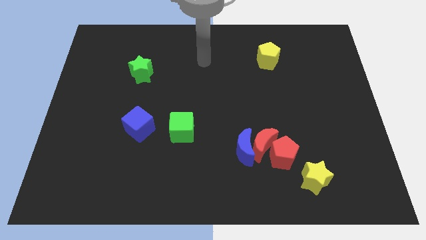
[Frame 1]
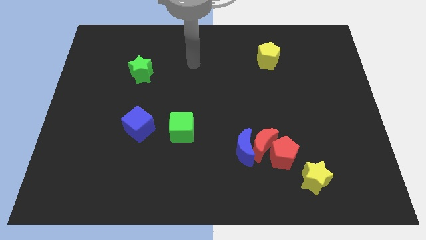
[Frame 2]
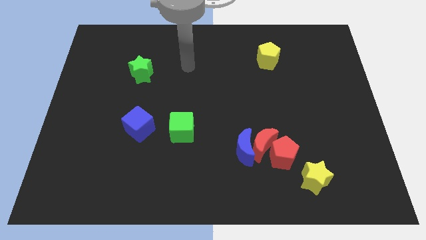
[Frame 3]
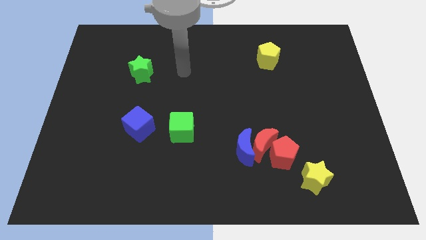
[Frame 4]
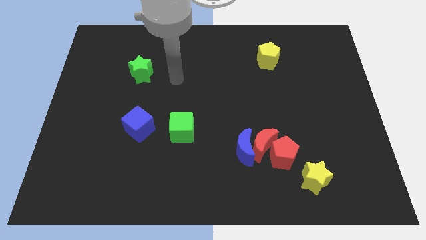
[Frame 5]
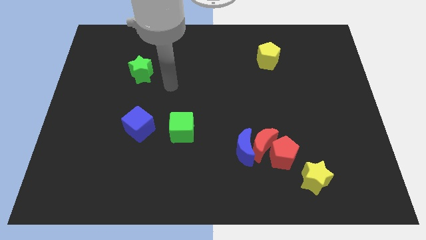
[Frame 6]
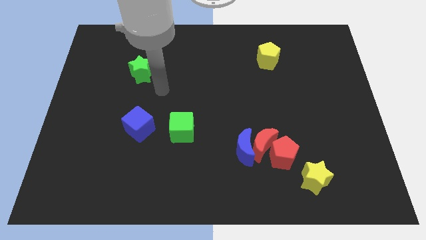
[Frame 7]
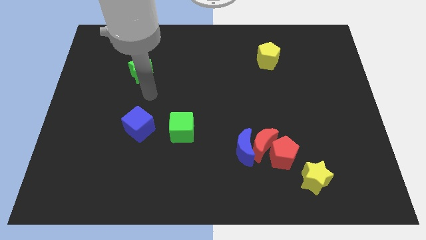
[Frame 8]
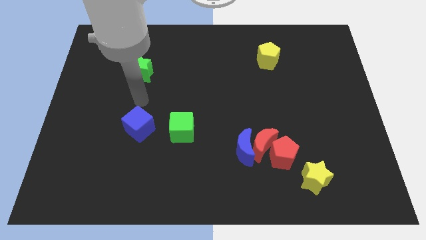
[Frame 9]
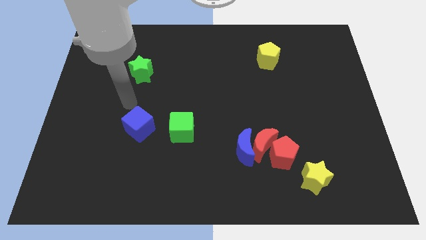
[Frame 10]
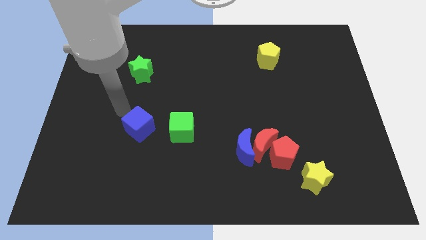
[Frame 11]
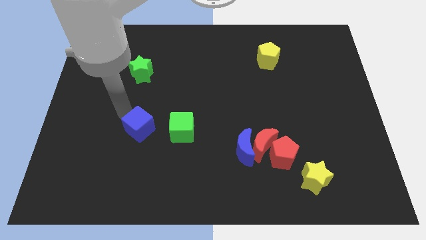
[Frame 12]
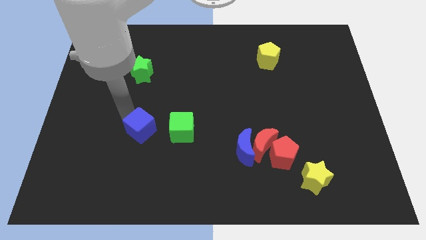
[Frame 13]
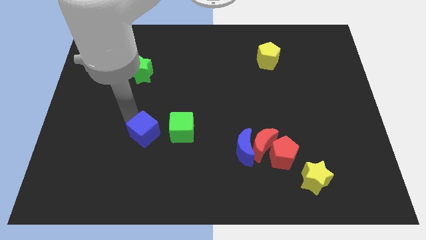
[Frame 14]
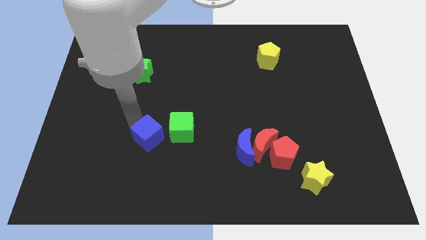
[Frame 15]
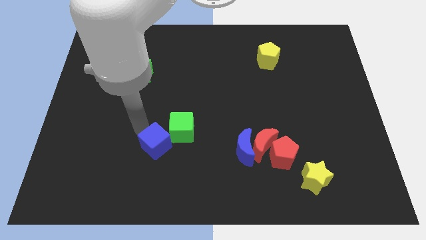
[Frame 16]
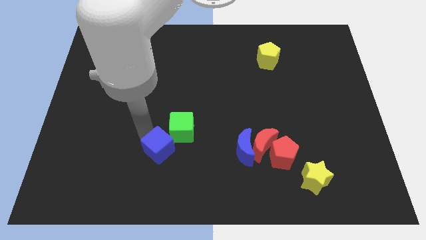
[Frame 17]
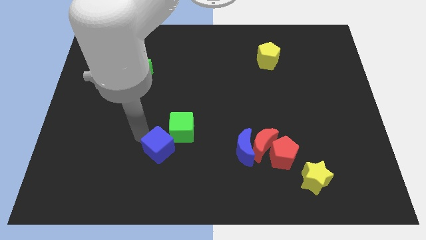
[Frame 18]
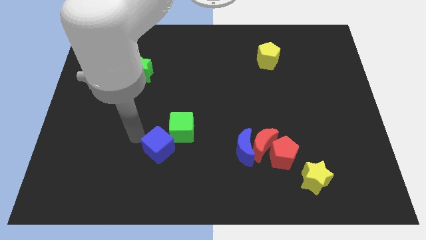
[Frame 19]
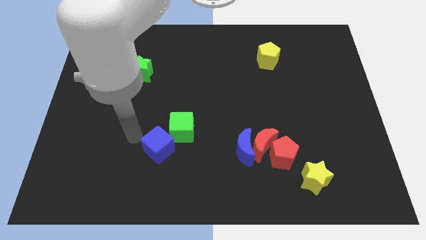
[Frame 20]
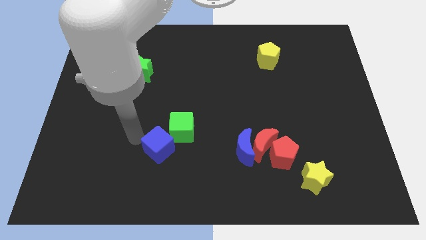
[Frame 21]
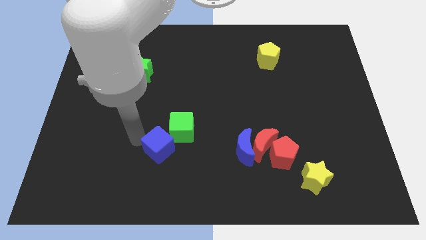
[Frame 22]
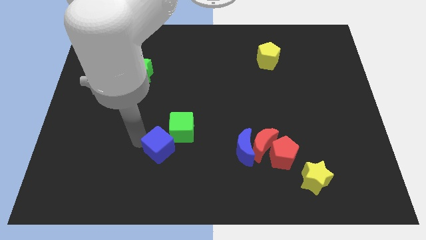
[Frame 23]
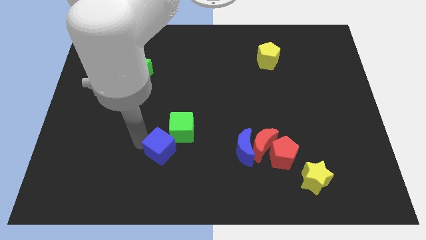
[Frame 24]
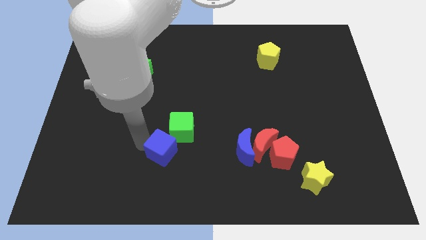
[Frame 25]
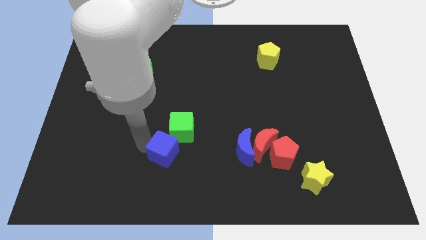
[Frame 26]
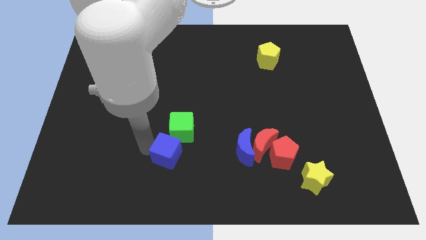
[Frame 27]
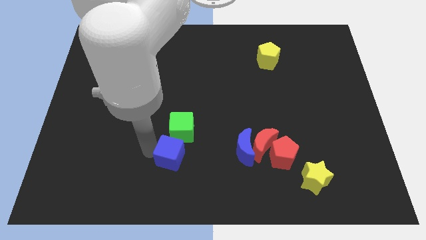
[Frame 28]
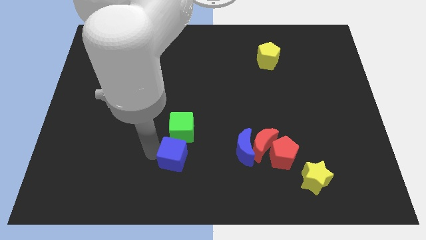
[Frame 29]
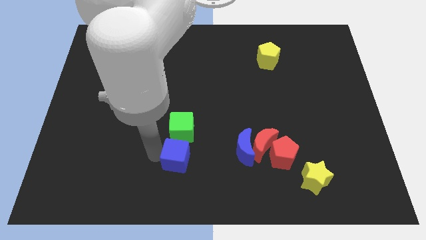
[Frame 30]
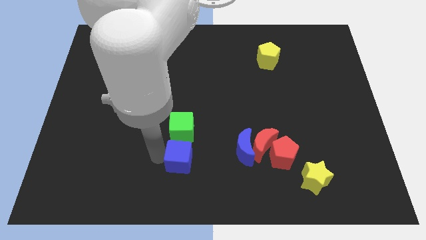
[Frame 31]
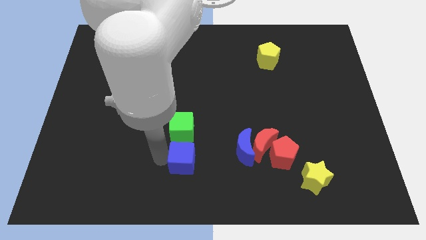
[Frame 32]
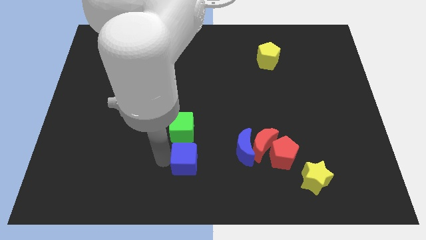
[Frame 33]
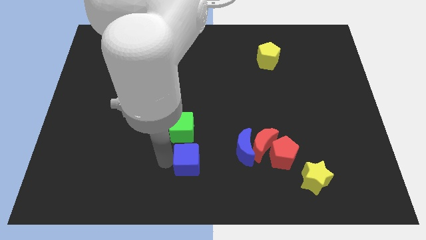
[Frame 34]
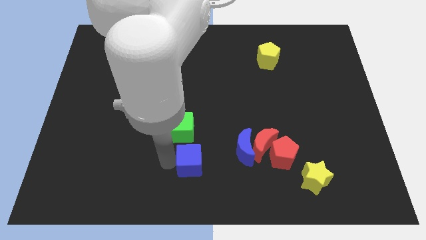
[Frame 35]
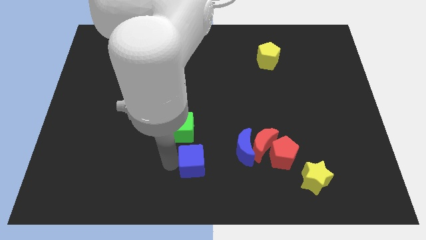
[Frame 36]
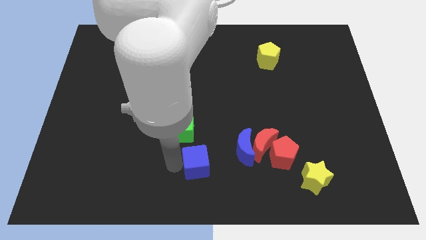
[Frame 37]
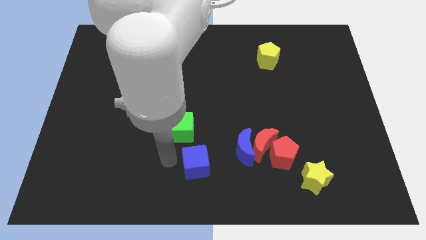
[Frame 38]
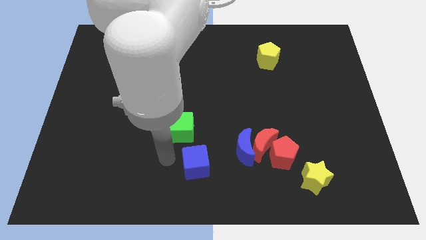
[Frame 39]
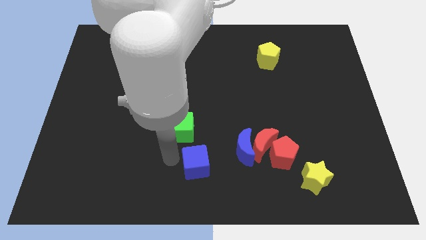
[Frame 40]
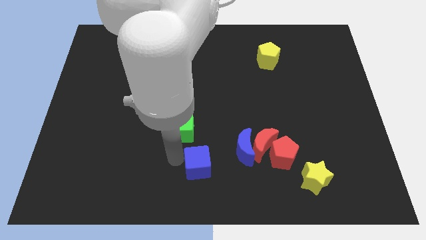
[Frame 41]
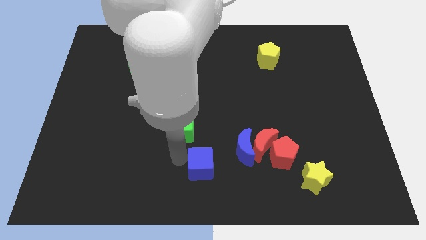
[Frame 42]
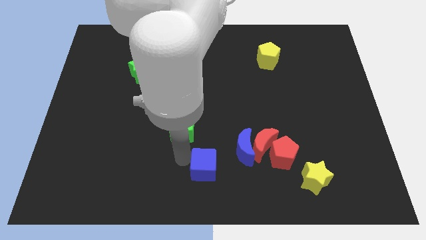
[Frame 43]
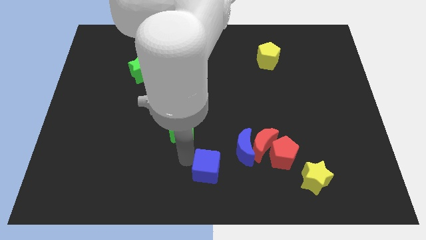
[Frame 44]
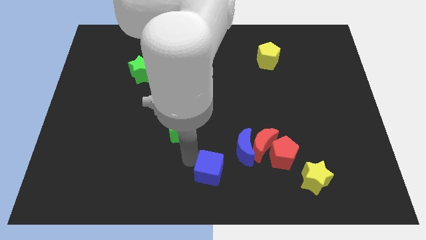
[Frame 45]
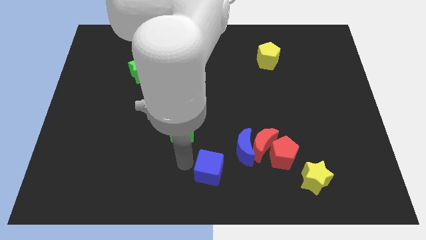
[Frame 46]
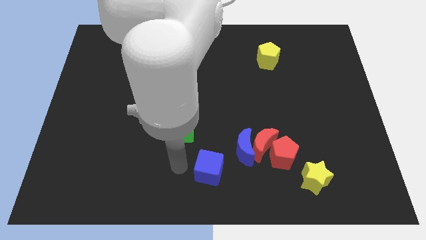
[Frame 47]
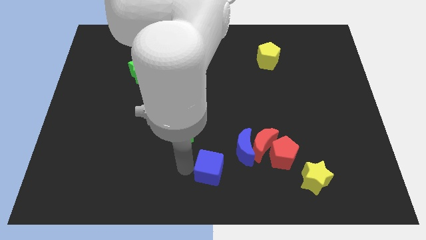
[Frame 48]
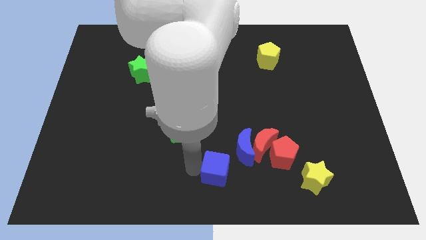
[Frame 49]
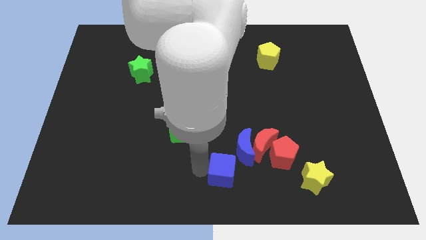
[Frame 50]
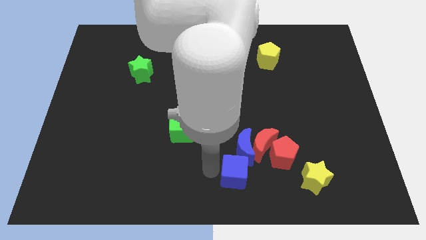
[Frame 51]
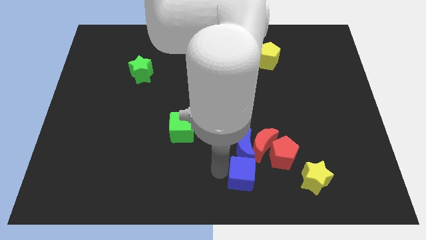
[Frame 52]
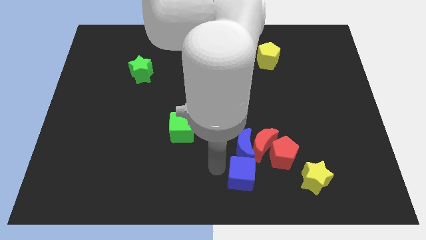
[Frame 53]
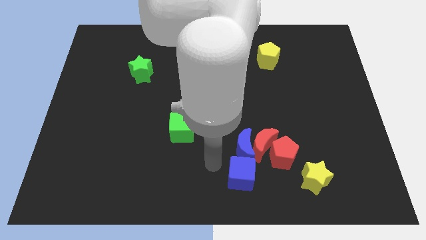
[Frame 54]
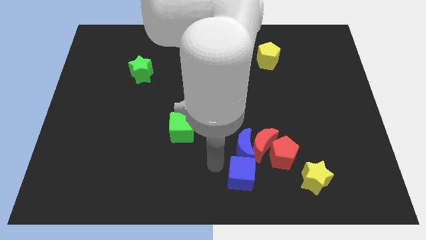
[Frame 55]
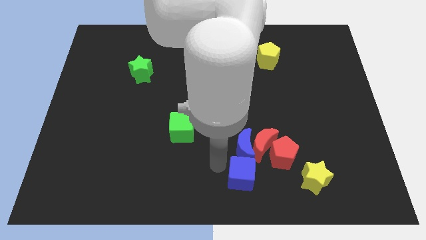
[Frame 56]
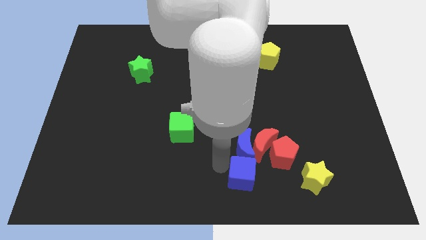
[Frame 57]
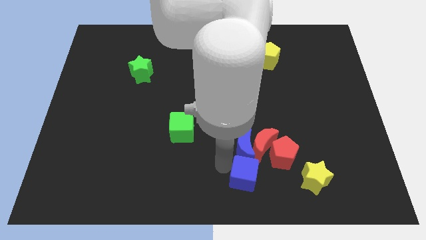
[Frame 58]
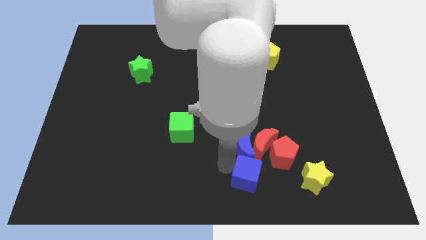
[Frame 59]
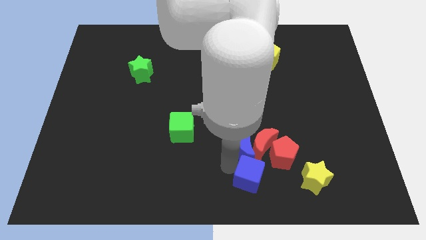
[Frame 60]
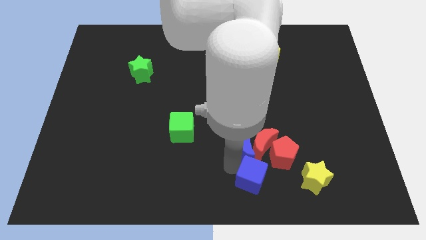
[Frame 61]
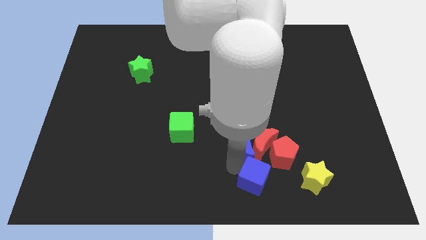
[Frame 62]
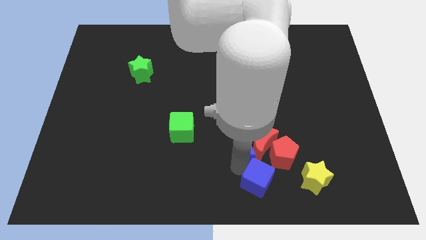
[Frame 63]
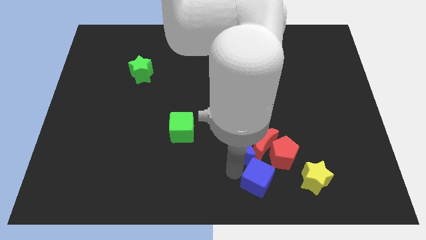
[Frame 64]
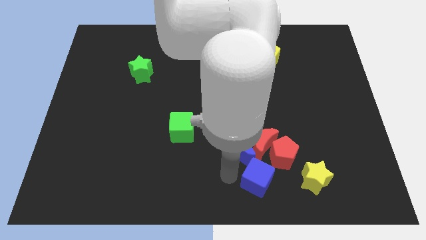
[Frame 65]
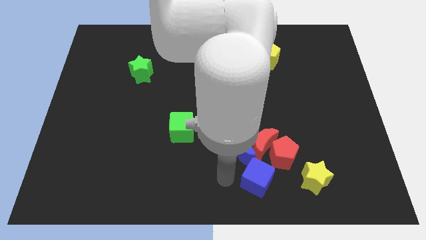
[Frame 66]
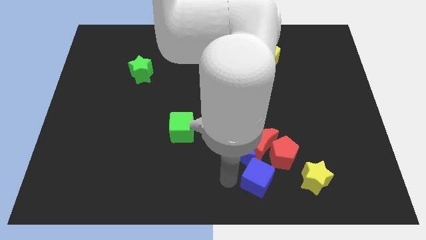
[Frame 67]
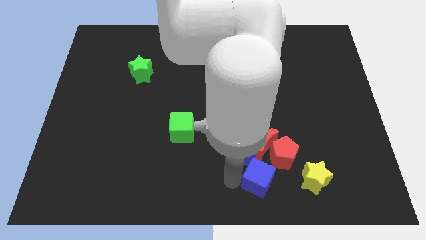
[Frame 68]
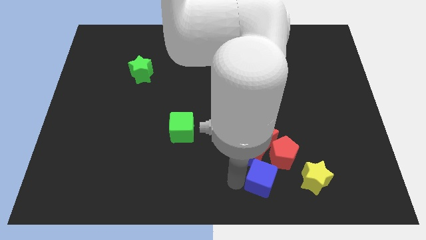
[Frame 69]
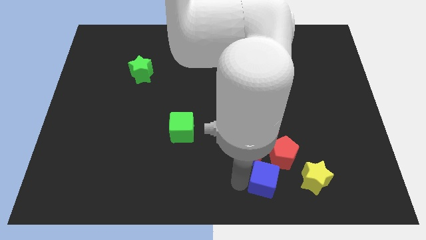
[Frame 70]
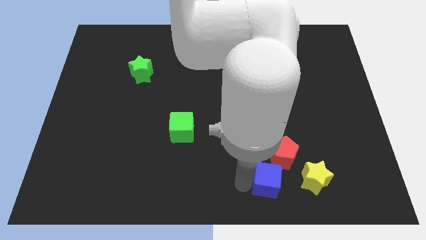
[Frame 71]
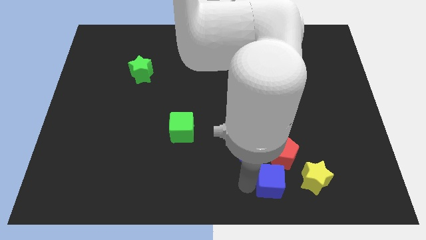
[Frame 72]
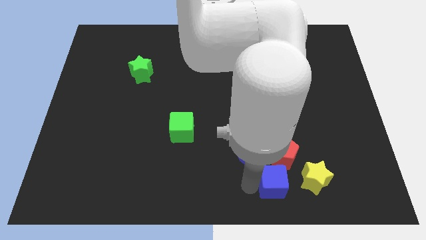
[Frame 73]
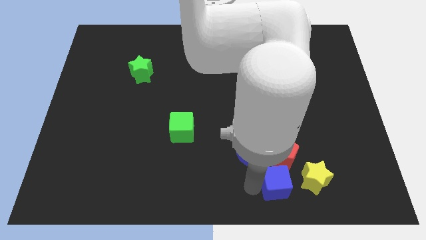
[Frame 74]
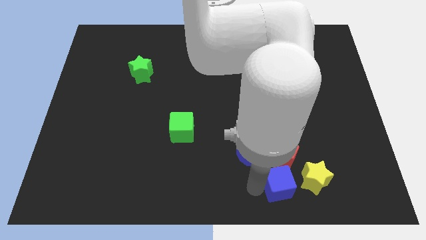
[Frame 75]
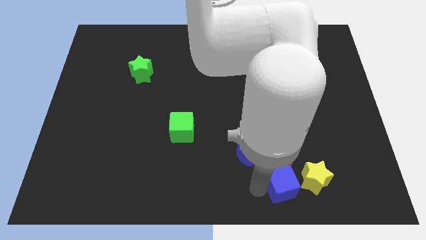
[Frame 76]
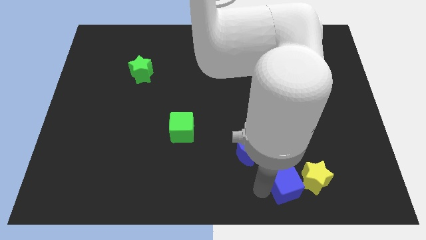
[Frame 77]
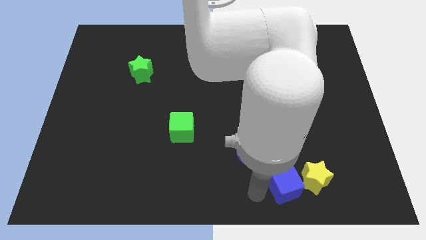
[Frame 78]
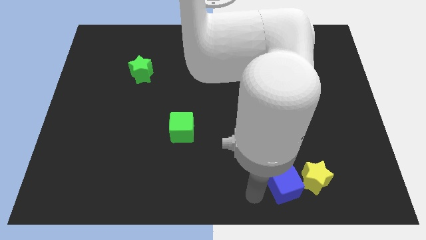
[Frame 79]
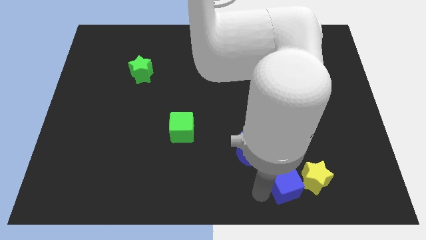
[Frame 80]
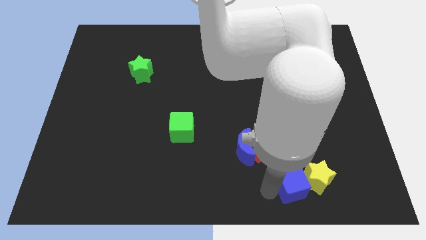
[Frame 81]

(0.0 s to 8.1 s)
put the blue cube towards the yellow star
